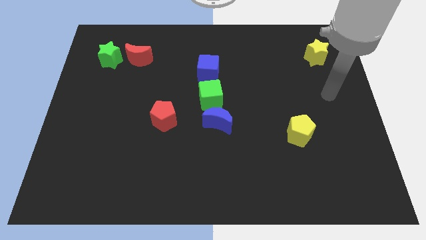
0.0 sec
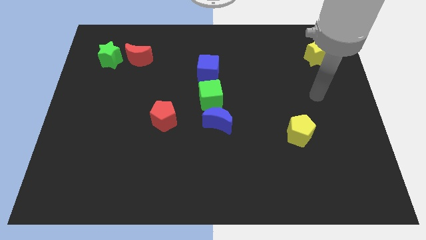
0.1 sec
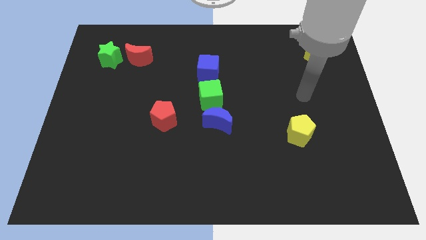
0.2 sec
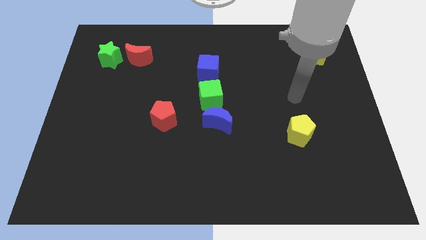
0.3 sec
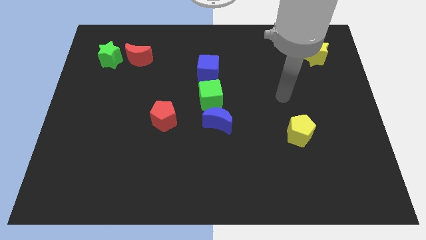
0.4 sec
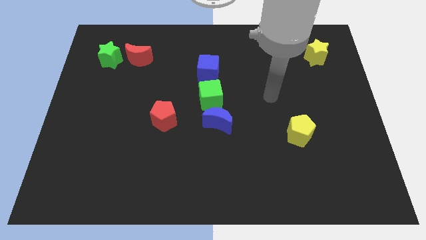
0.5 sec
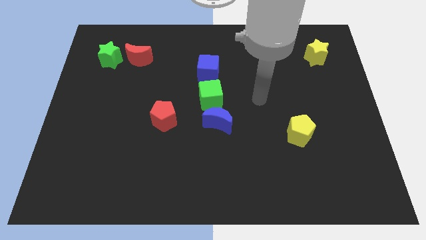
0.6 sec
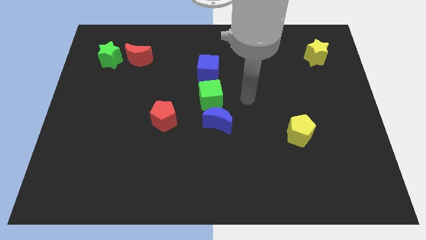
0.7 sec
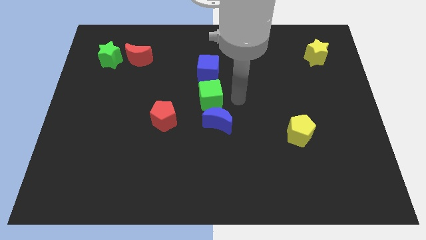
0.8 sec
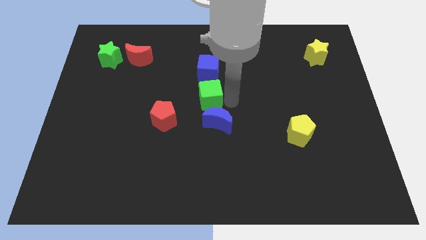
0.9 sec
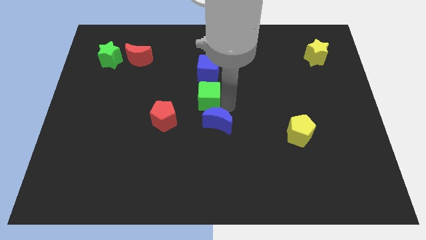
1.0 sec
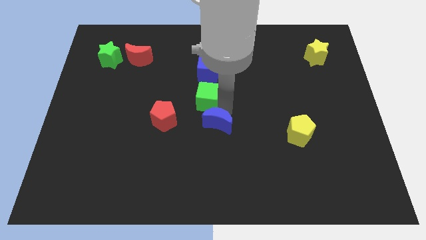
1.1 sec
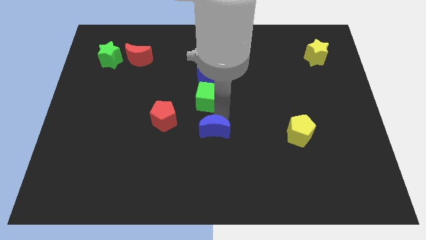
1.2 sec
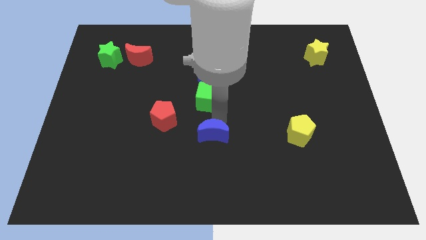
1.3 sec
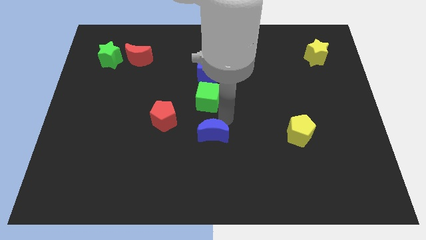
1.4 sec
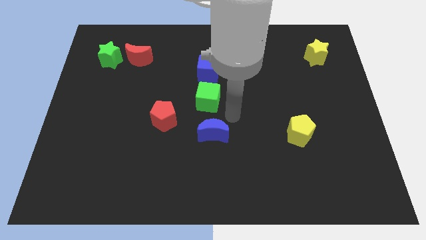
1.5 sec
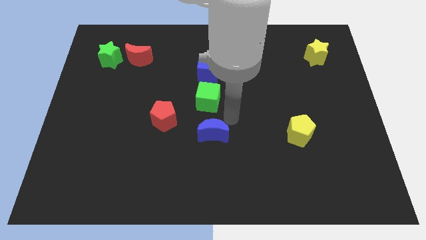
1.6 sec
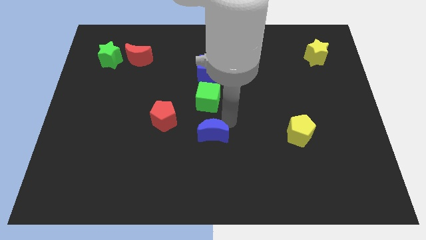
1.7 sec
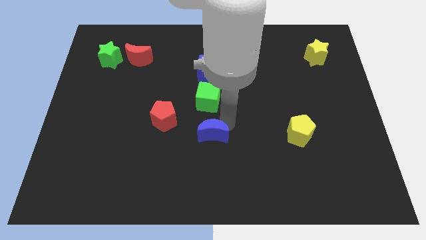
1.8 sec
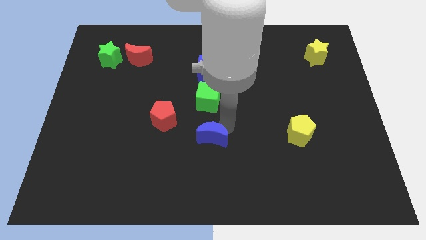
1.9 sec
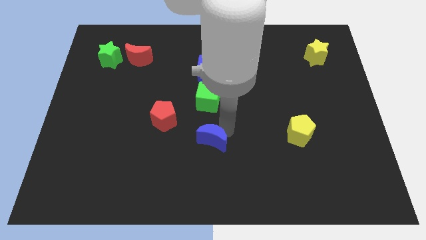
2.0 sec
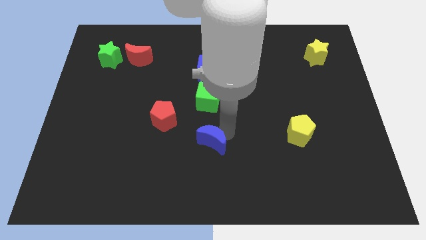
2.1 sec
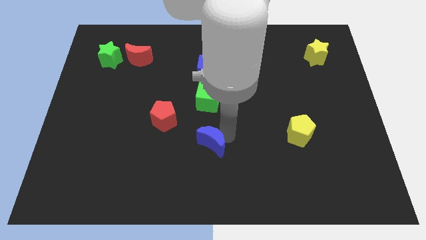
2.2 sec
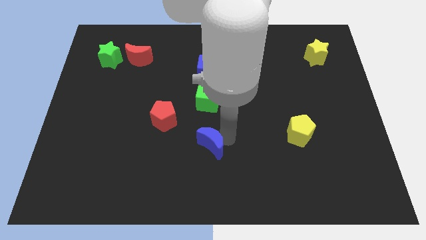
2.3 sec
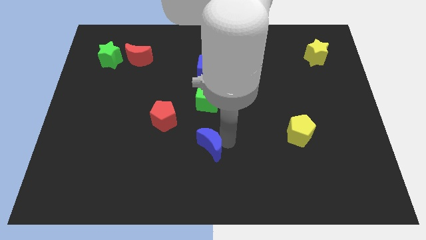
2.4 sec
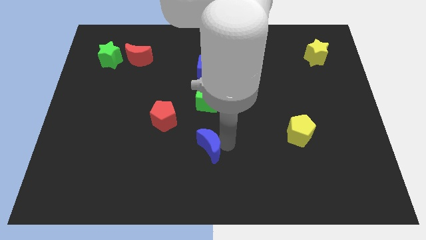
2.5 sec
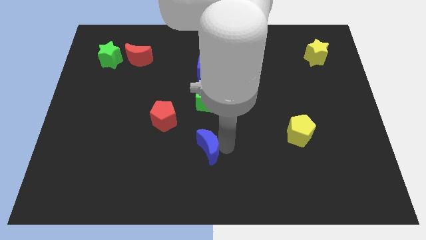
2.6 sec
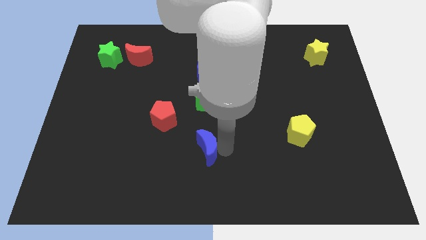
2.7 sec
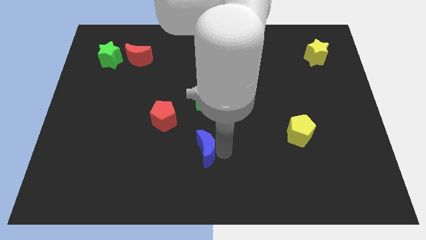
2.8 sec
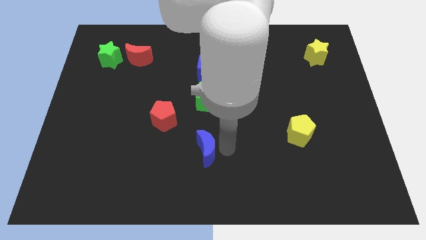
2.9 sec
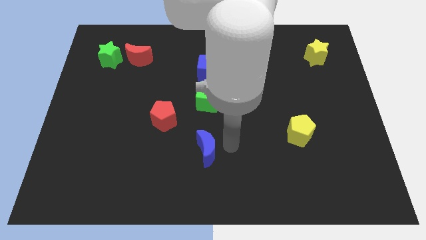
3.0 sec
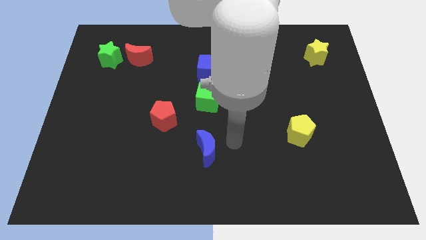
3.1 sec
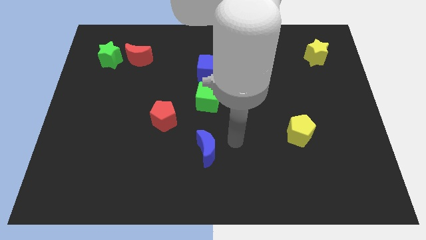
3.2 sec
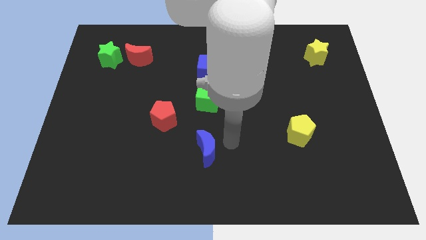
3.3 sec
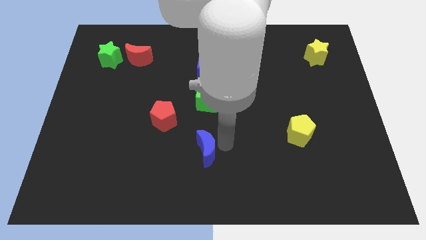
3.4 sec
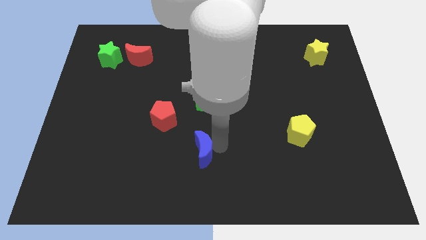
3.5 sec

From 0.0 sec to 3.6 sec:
slightly slide the blue moon down and then left

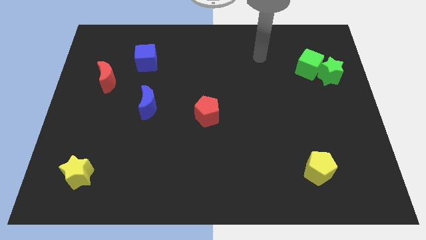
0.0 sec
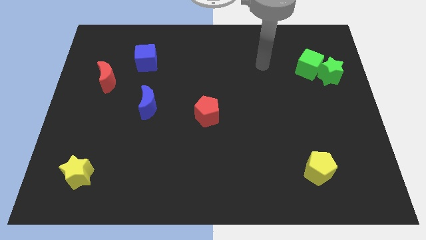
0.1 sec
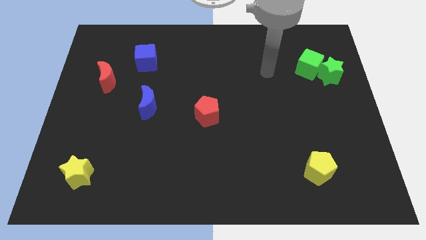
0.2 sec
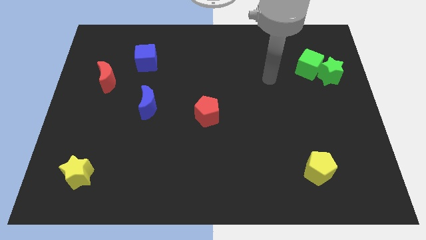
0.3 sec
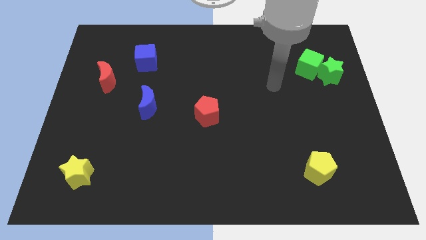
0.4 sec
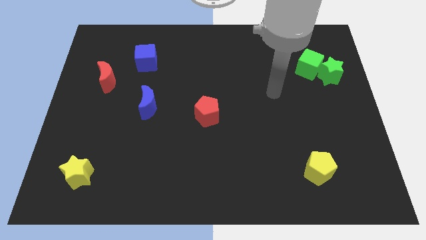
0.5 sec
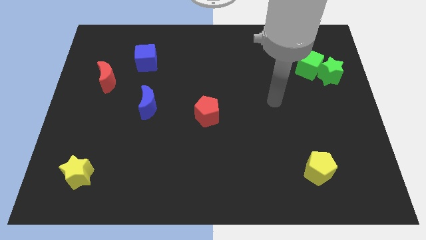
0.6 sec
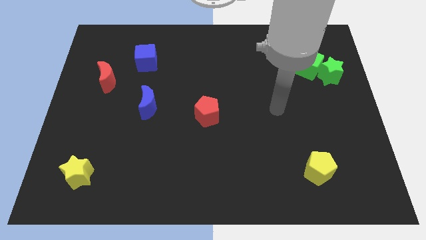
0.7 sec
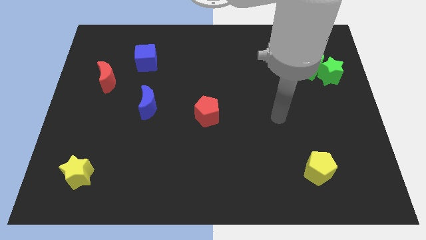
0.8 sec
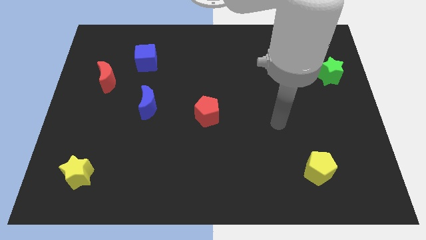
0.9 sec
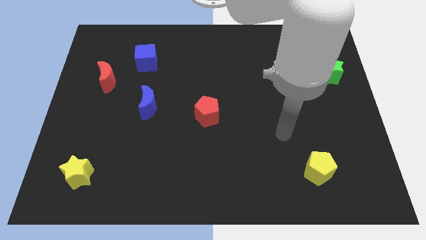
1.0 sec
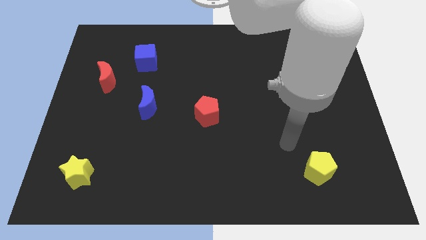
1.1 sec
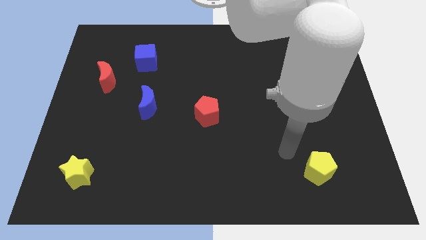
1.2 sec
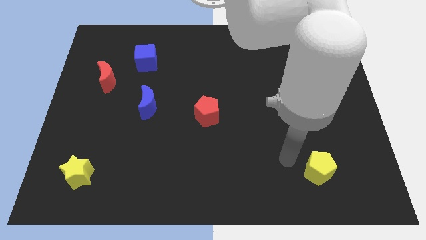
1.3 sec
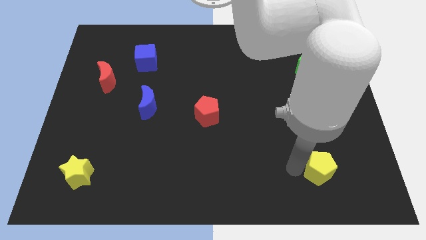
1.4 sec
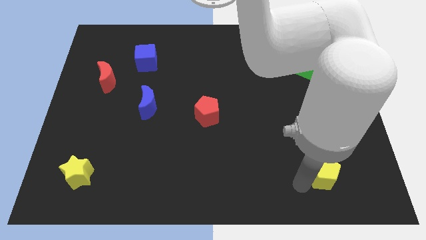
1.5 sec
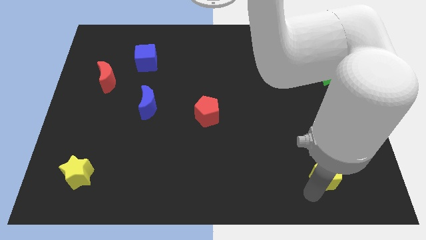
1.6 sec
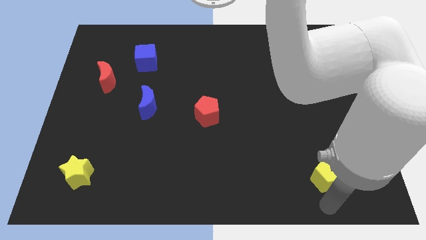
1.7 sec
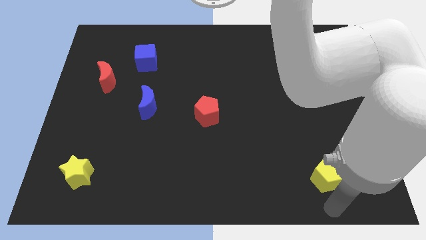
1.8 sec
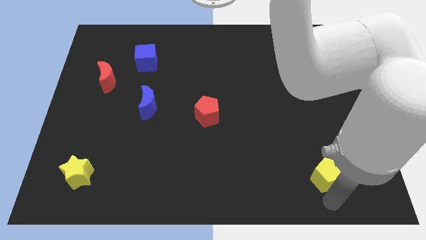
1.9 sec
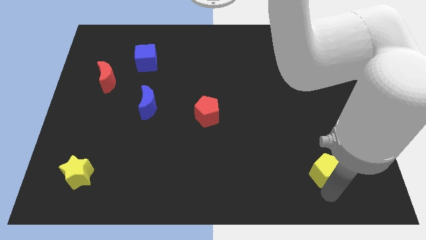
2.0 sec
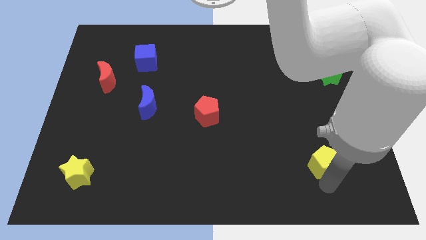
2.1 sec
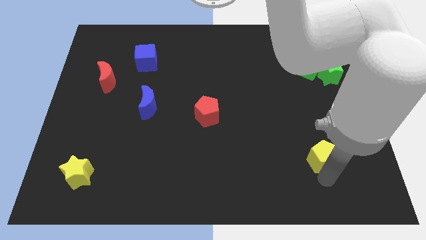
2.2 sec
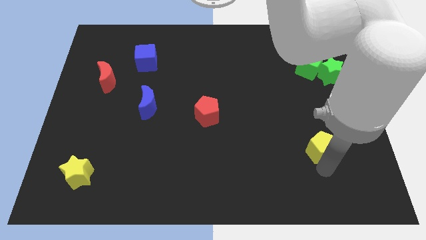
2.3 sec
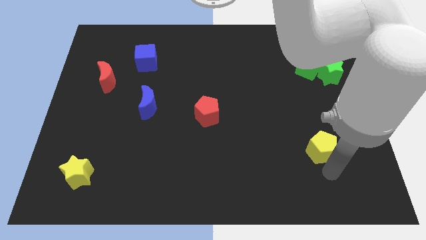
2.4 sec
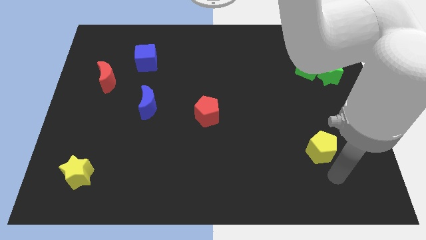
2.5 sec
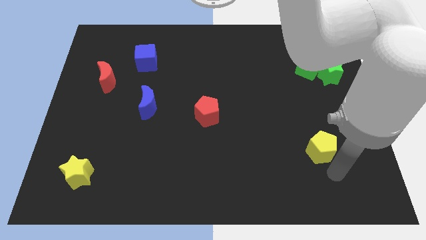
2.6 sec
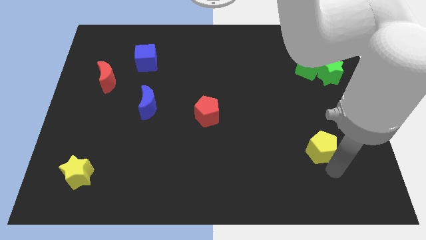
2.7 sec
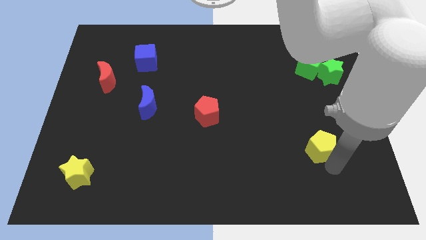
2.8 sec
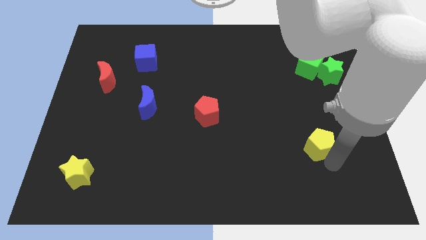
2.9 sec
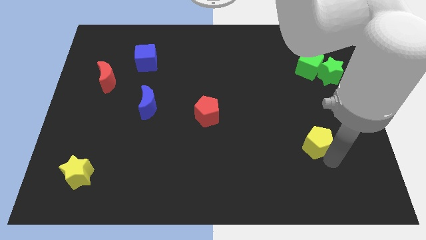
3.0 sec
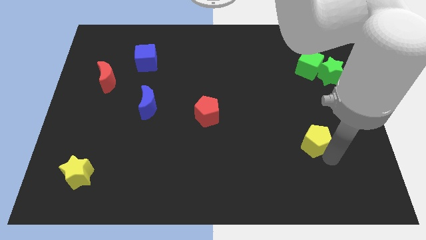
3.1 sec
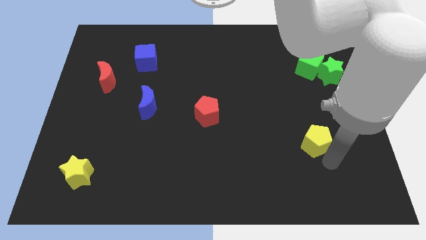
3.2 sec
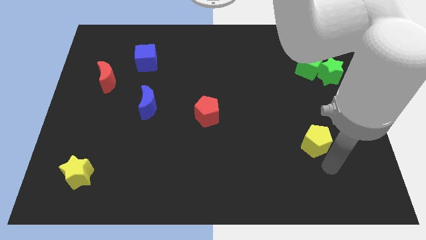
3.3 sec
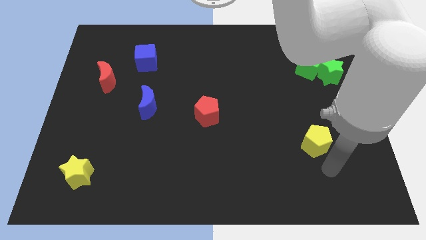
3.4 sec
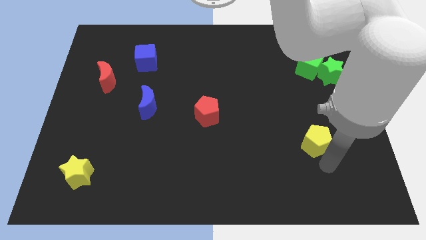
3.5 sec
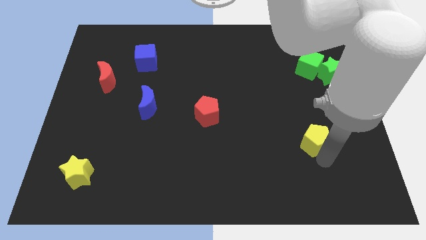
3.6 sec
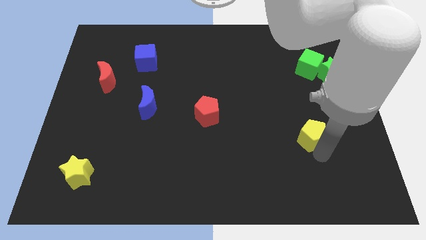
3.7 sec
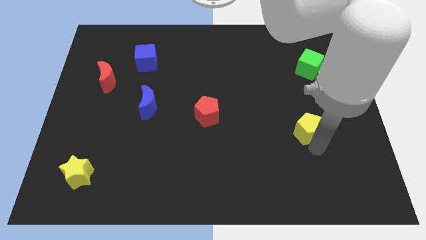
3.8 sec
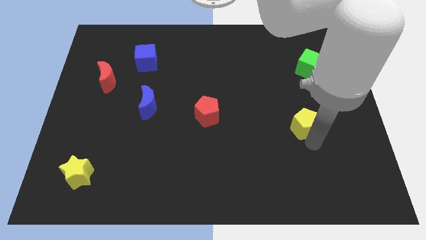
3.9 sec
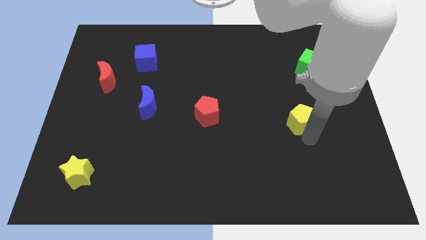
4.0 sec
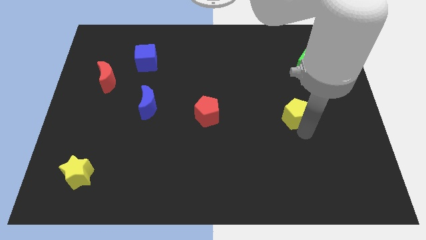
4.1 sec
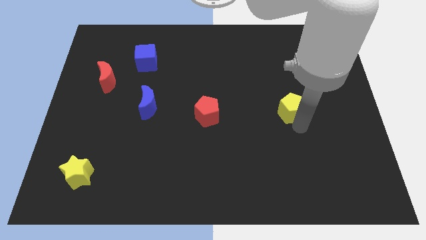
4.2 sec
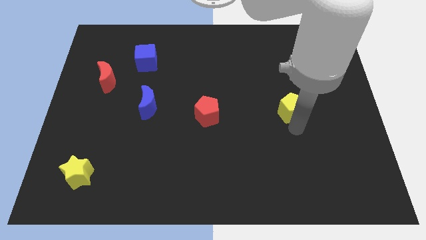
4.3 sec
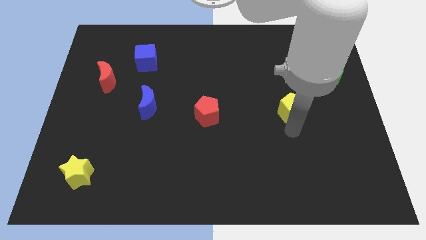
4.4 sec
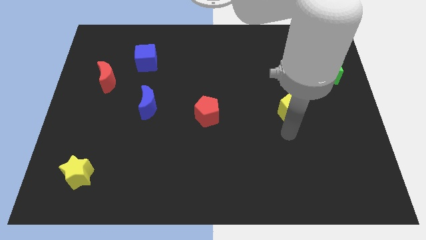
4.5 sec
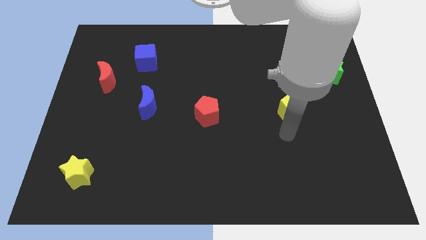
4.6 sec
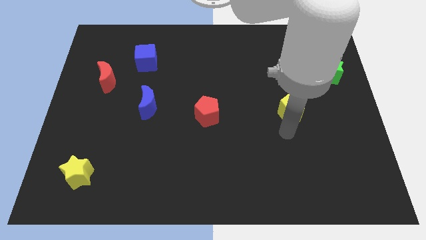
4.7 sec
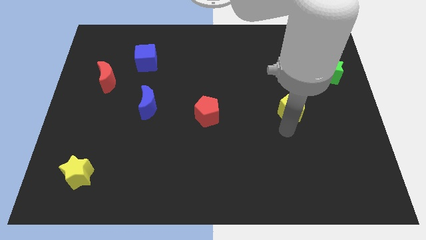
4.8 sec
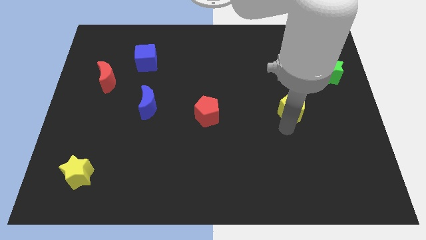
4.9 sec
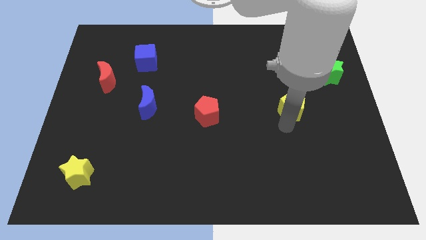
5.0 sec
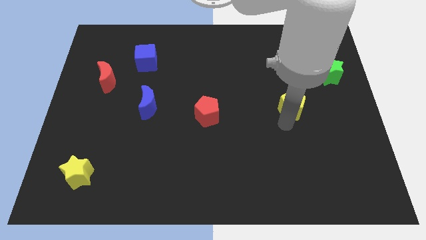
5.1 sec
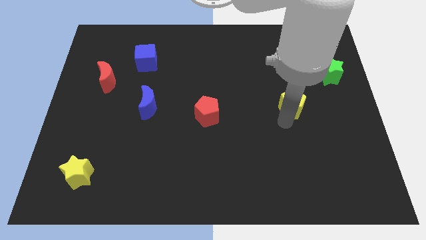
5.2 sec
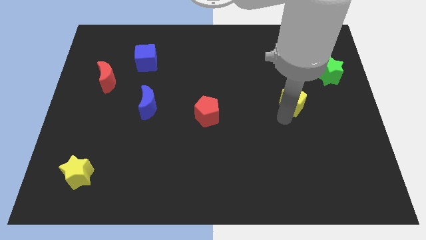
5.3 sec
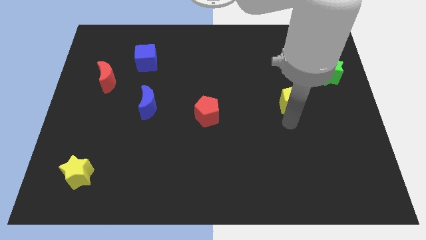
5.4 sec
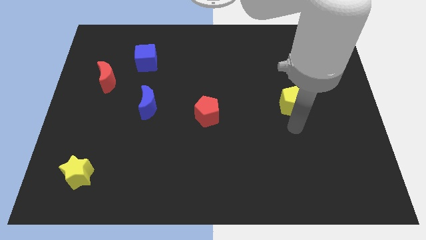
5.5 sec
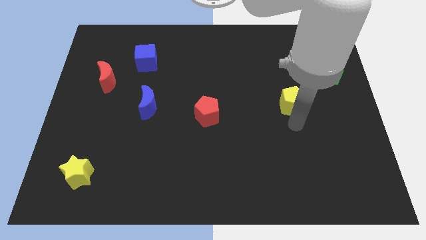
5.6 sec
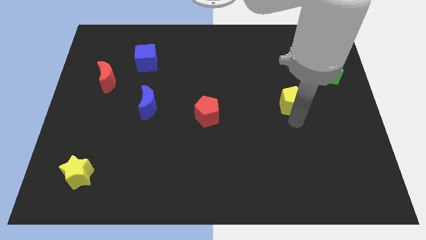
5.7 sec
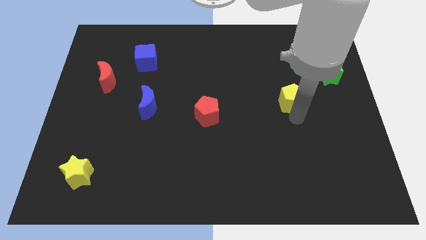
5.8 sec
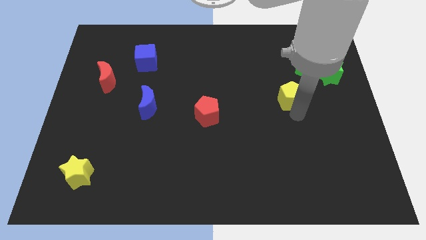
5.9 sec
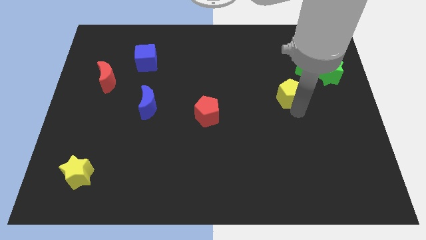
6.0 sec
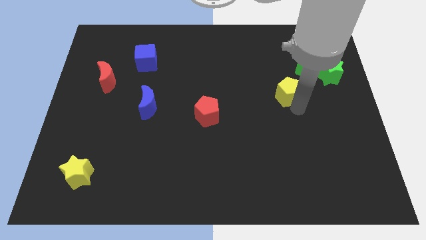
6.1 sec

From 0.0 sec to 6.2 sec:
push the yellow pentagon up
